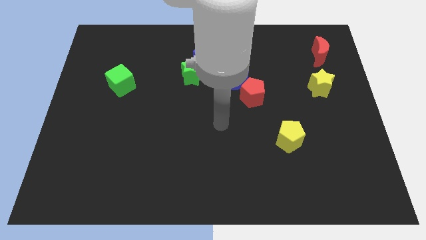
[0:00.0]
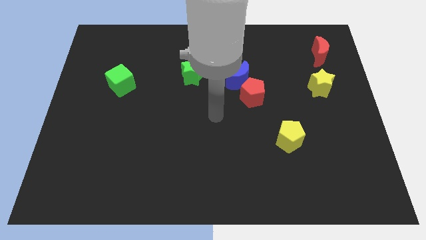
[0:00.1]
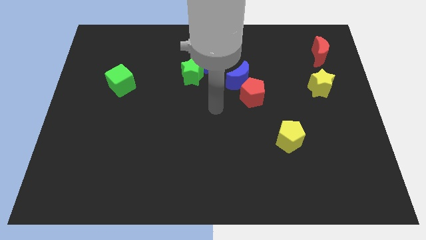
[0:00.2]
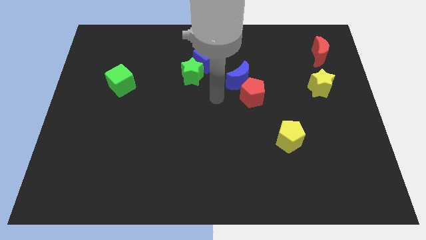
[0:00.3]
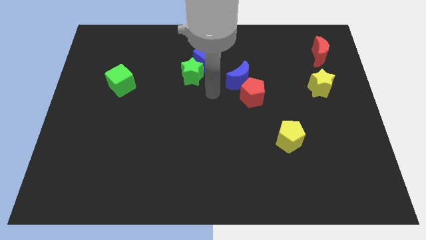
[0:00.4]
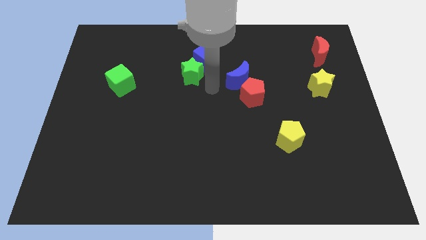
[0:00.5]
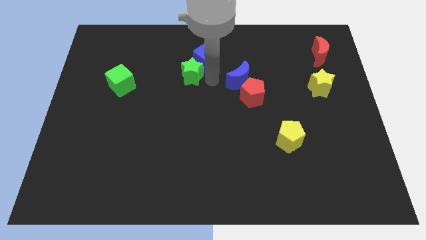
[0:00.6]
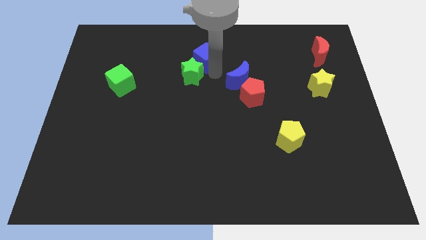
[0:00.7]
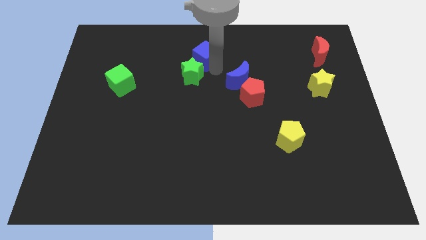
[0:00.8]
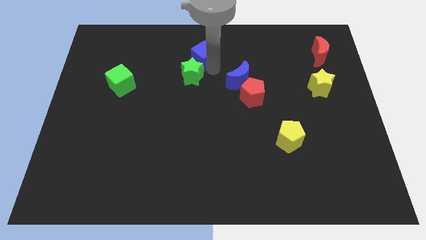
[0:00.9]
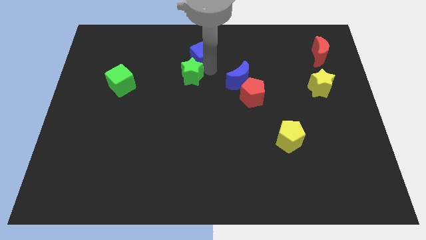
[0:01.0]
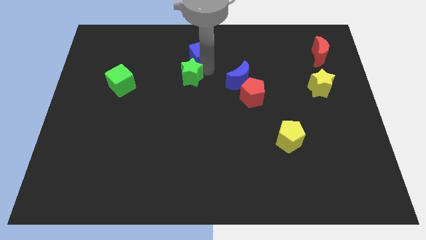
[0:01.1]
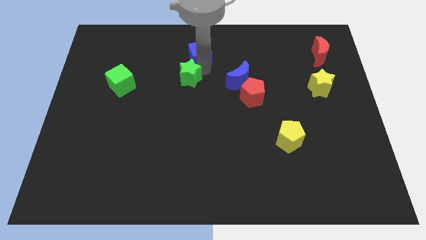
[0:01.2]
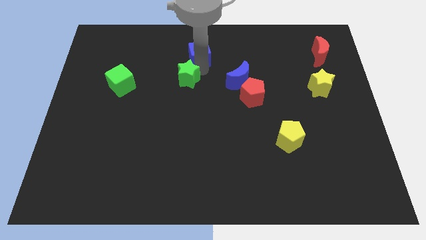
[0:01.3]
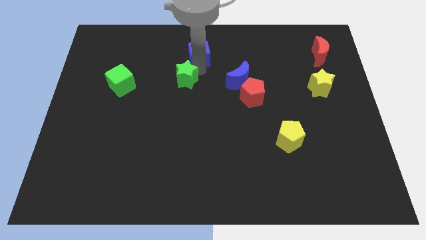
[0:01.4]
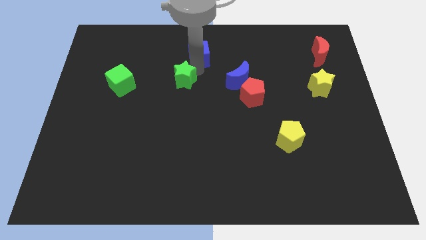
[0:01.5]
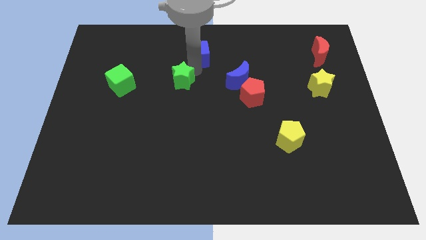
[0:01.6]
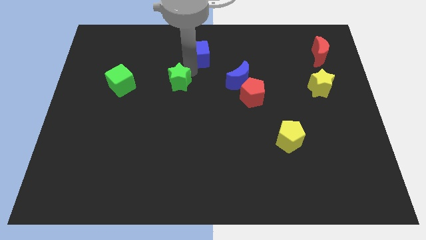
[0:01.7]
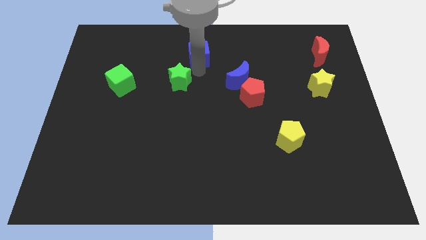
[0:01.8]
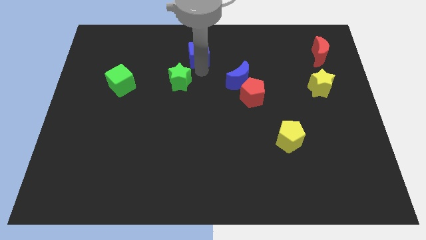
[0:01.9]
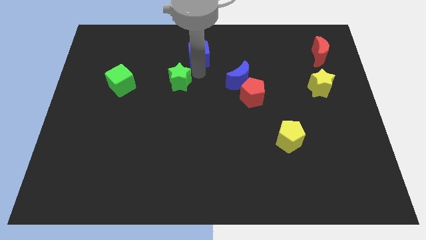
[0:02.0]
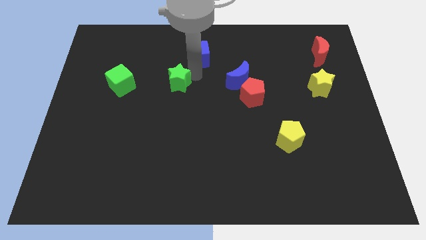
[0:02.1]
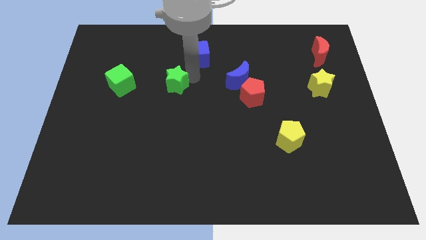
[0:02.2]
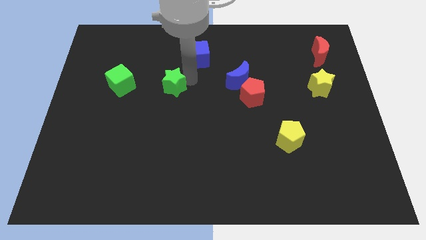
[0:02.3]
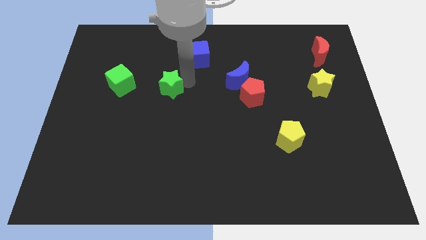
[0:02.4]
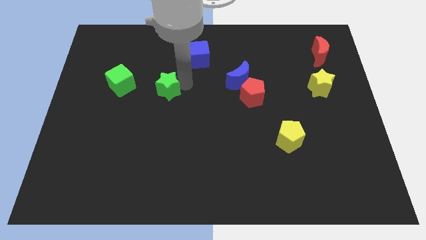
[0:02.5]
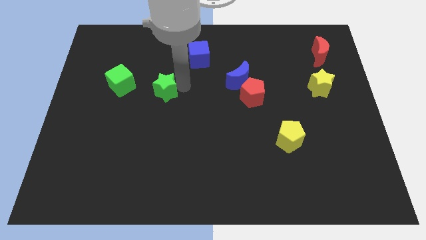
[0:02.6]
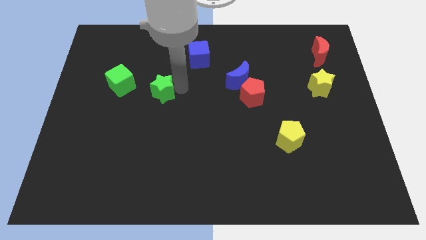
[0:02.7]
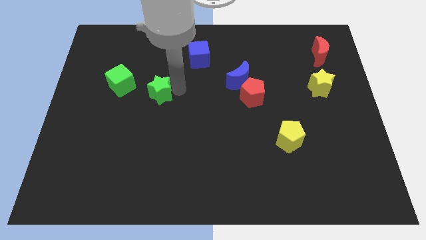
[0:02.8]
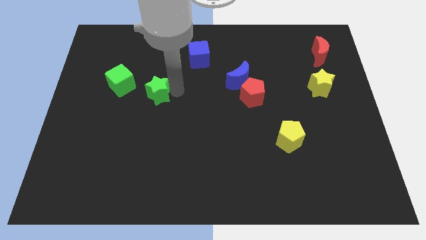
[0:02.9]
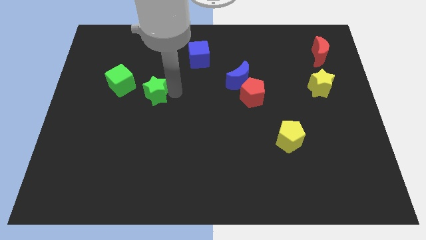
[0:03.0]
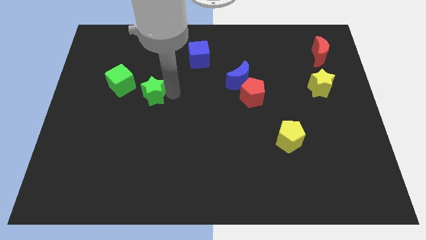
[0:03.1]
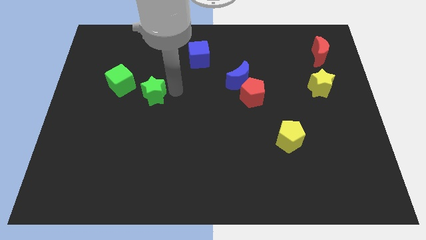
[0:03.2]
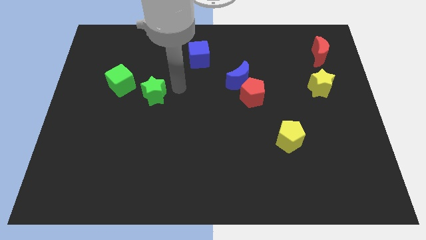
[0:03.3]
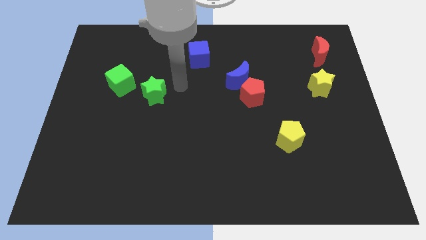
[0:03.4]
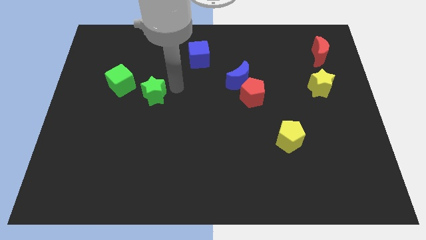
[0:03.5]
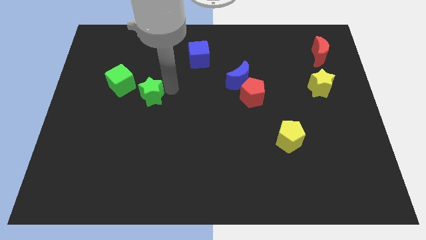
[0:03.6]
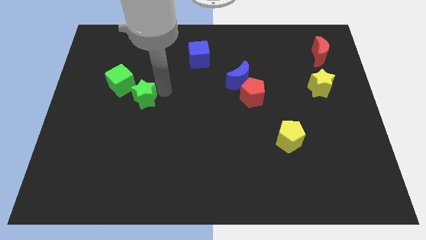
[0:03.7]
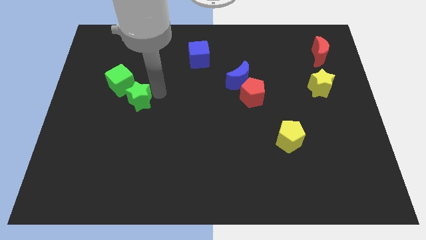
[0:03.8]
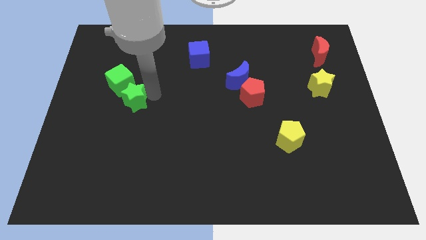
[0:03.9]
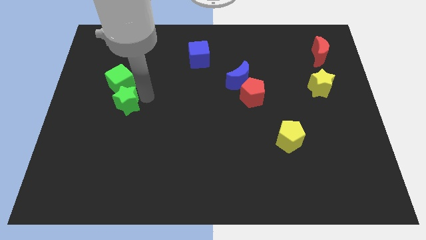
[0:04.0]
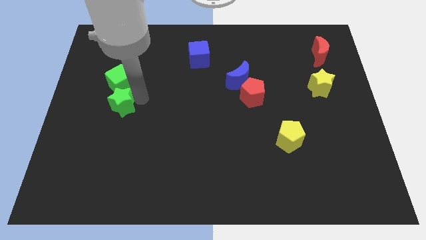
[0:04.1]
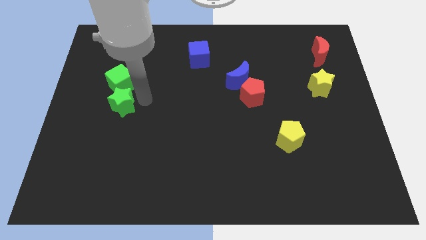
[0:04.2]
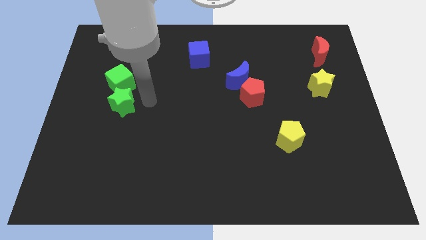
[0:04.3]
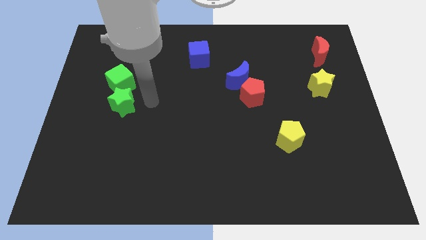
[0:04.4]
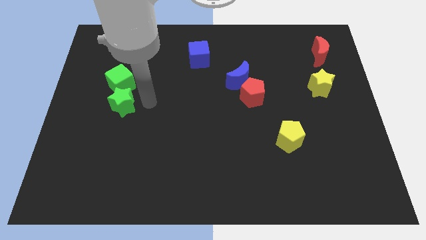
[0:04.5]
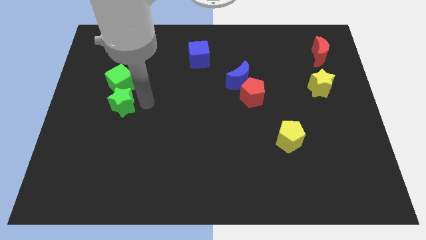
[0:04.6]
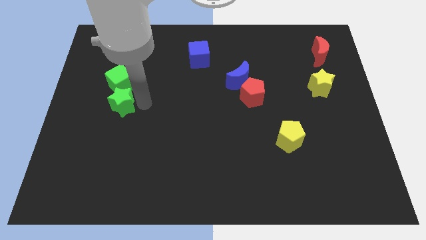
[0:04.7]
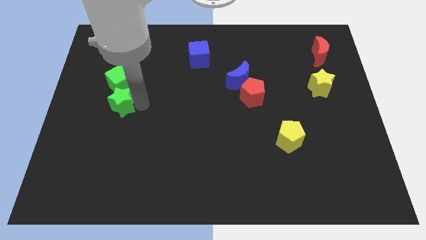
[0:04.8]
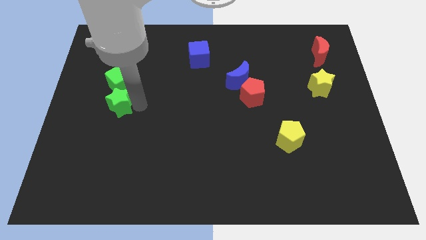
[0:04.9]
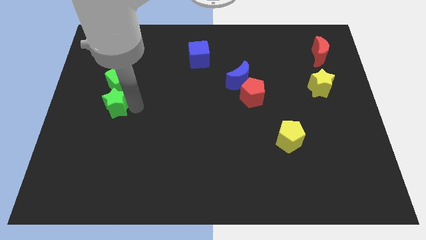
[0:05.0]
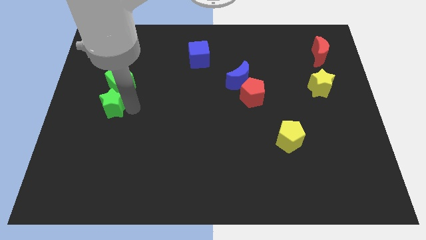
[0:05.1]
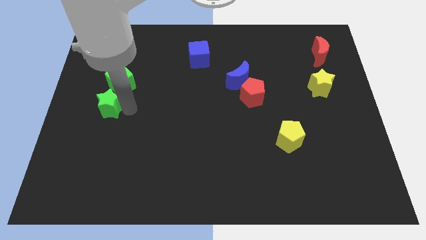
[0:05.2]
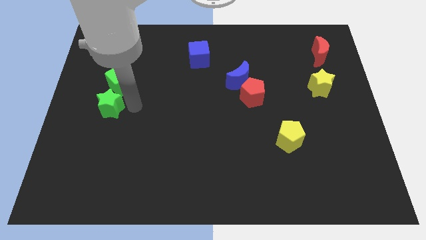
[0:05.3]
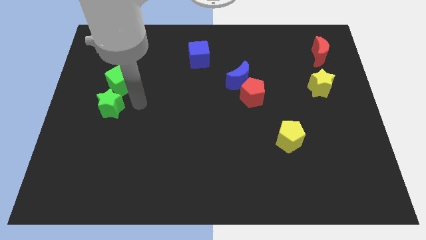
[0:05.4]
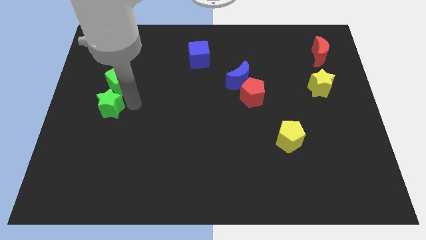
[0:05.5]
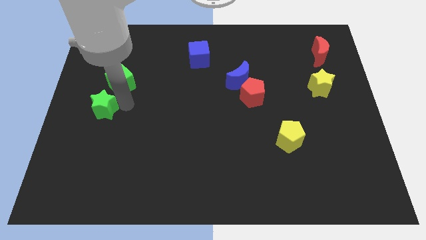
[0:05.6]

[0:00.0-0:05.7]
push the green star to the left side of the board

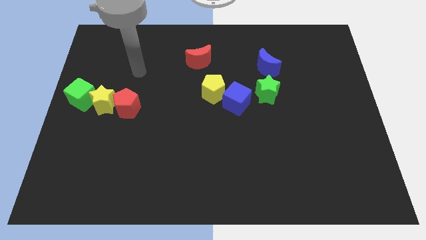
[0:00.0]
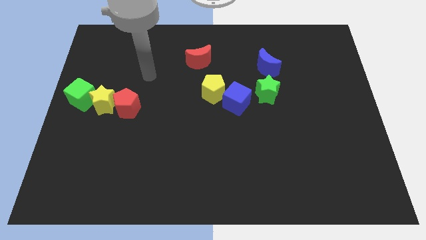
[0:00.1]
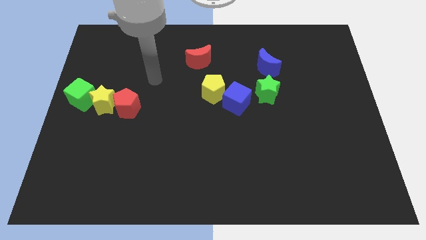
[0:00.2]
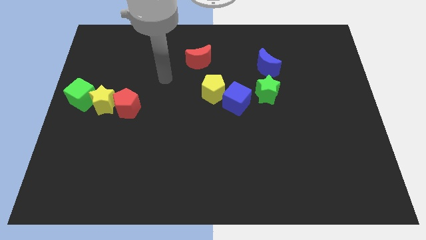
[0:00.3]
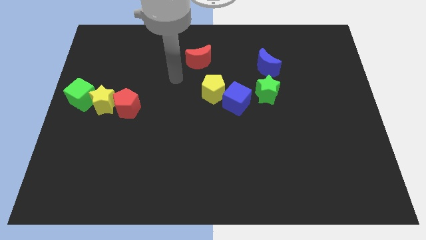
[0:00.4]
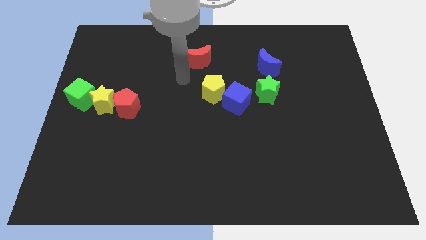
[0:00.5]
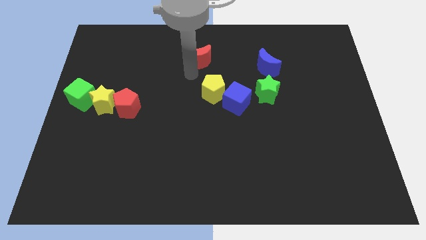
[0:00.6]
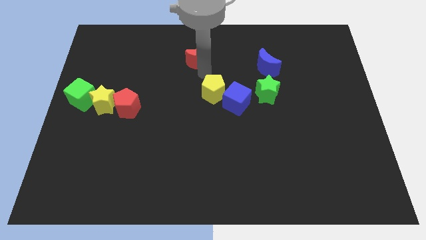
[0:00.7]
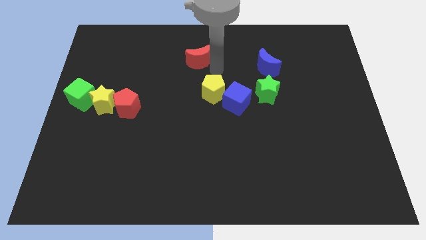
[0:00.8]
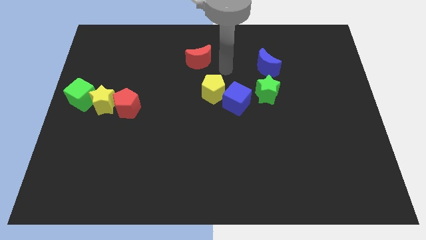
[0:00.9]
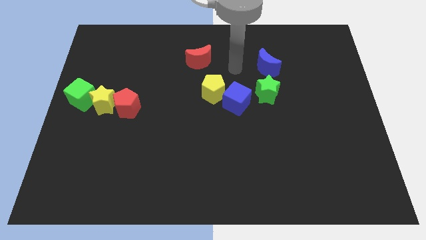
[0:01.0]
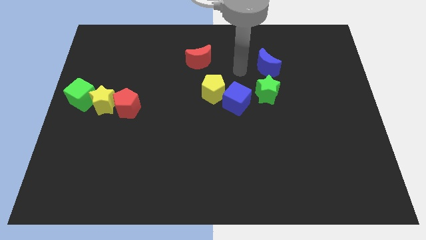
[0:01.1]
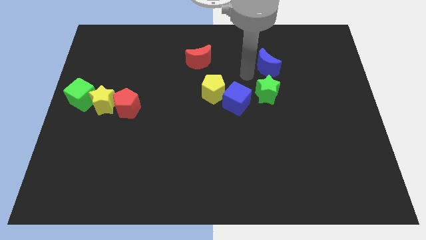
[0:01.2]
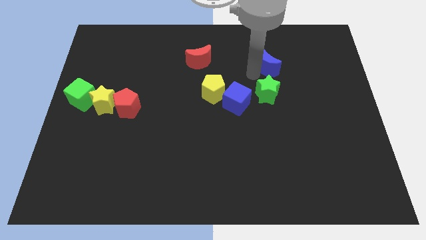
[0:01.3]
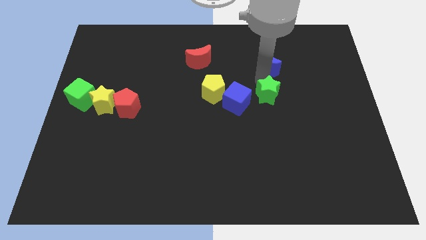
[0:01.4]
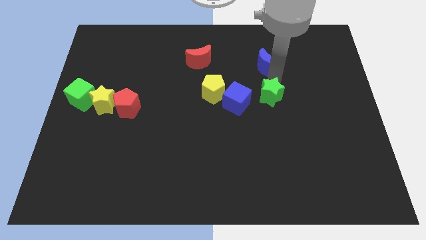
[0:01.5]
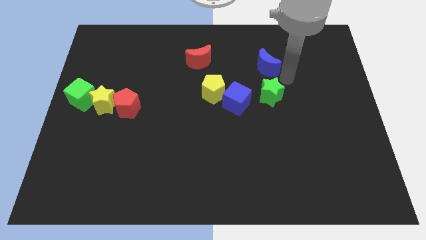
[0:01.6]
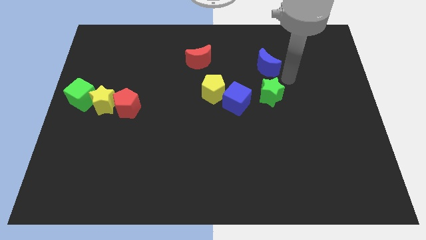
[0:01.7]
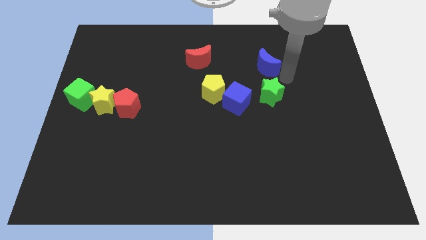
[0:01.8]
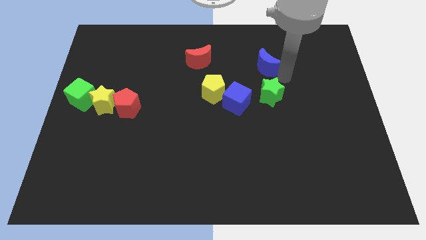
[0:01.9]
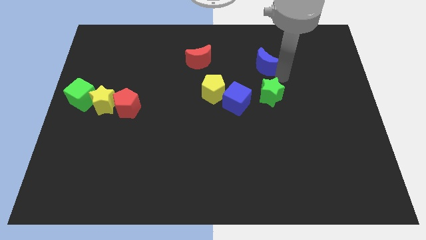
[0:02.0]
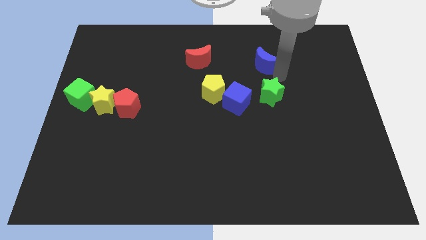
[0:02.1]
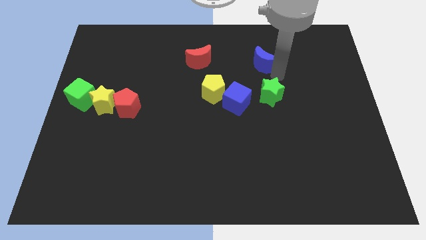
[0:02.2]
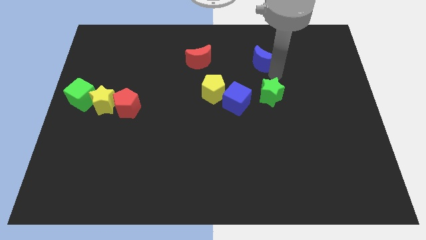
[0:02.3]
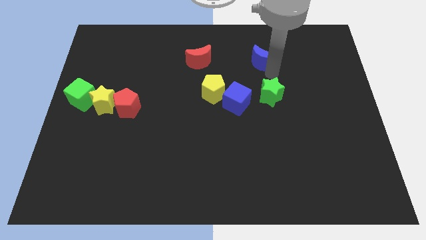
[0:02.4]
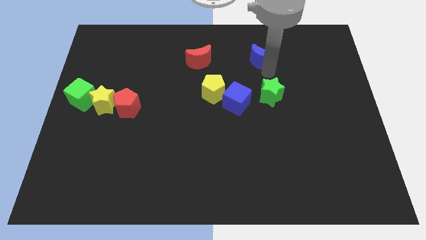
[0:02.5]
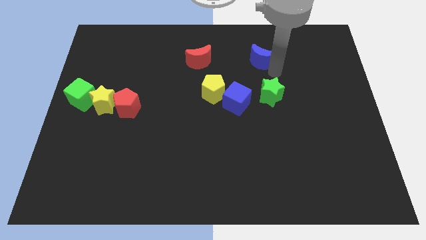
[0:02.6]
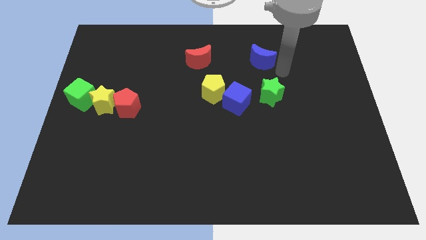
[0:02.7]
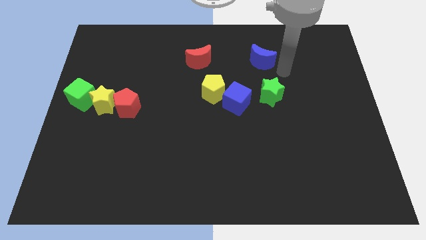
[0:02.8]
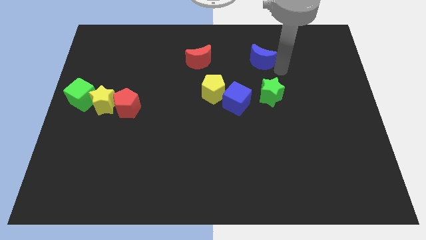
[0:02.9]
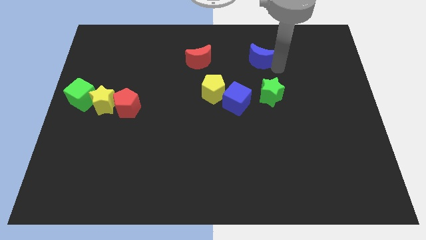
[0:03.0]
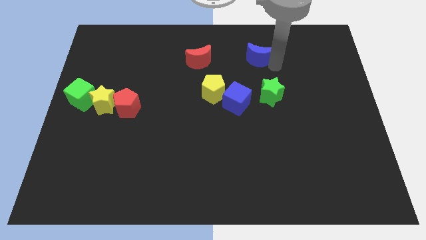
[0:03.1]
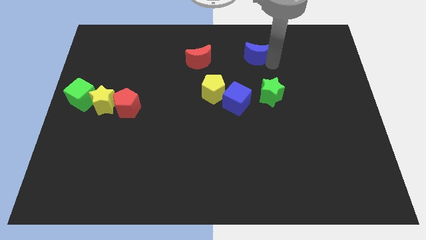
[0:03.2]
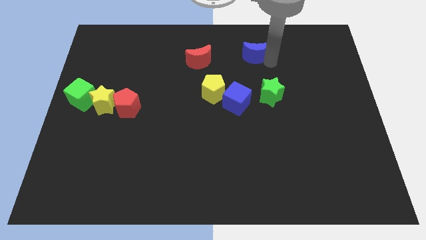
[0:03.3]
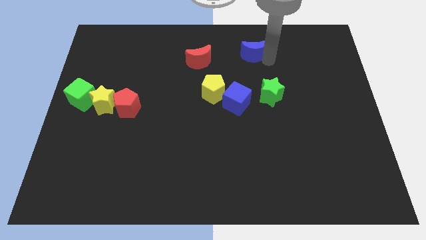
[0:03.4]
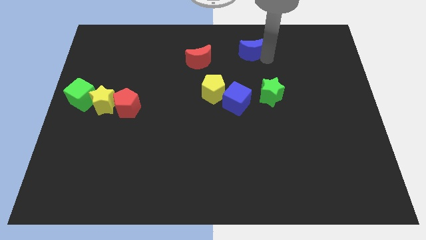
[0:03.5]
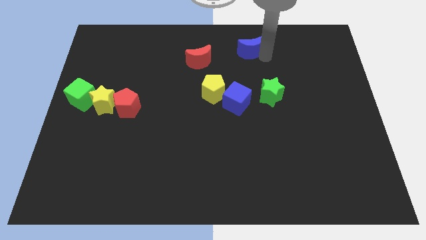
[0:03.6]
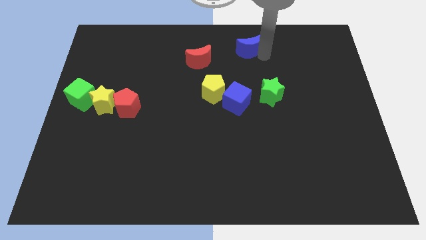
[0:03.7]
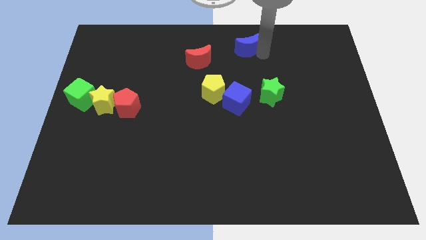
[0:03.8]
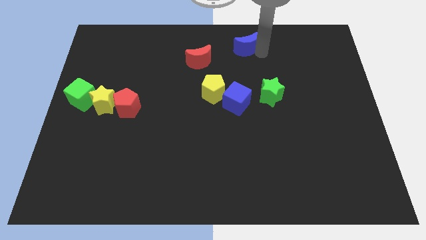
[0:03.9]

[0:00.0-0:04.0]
put the blue moon to the towards your base
